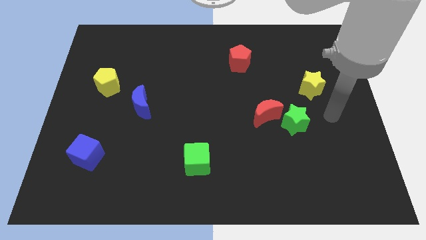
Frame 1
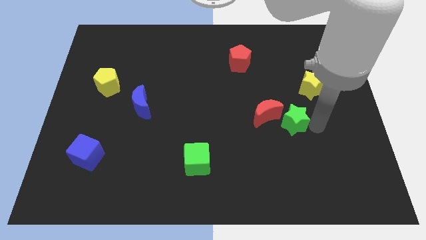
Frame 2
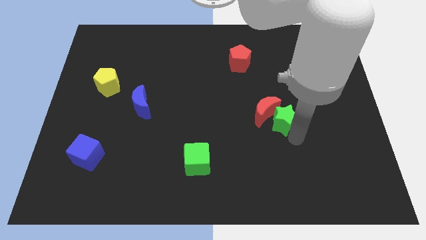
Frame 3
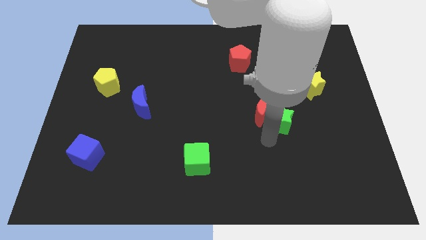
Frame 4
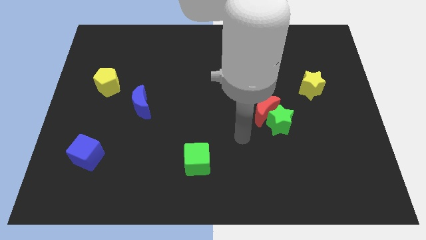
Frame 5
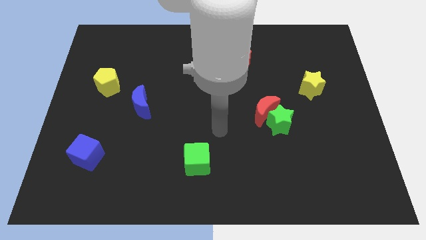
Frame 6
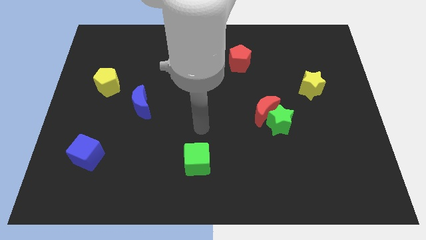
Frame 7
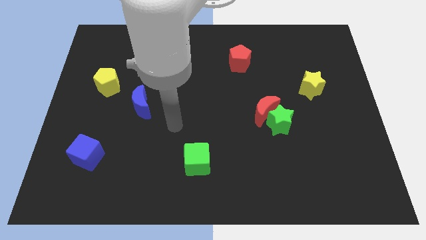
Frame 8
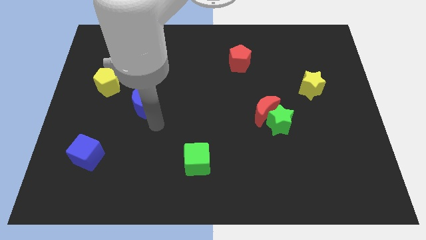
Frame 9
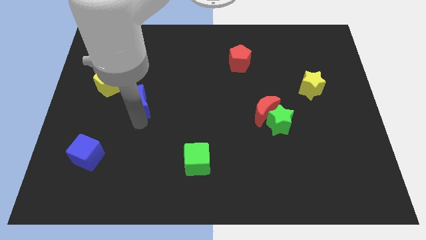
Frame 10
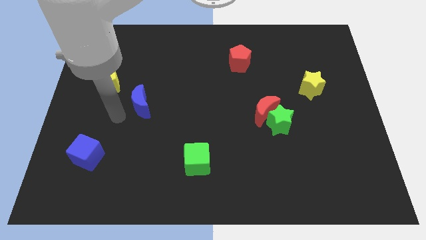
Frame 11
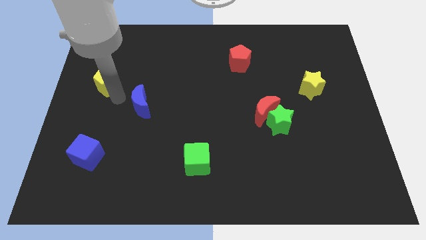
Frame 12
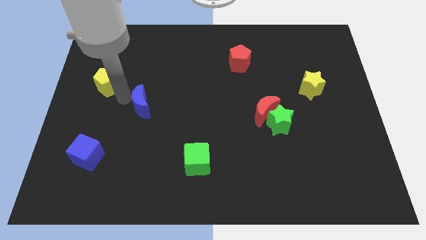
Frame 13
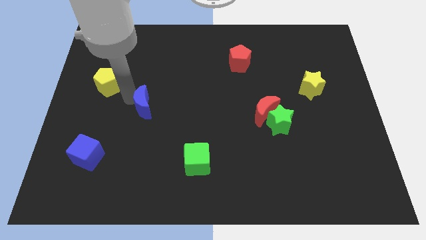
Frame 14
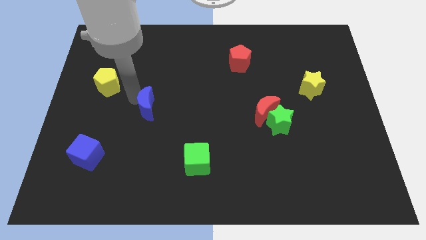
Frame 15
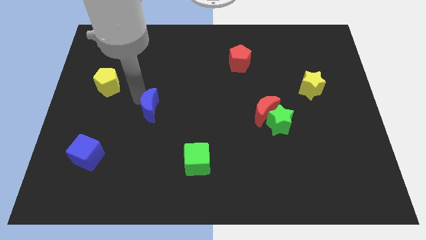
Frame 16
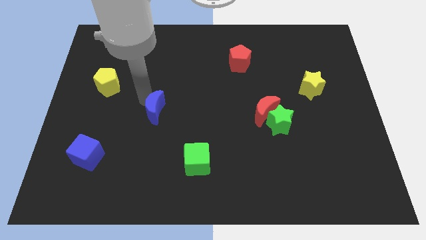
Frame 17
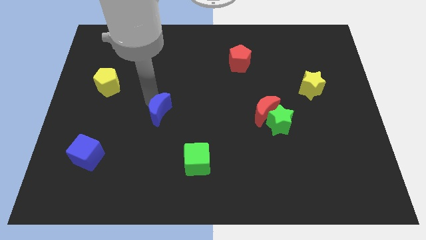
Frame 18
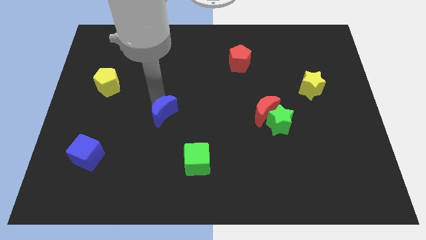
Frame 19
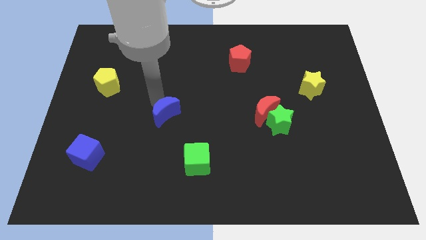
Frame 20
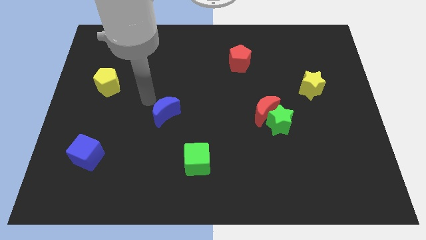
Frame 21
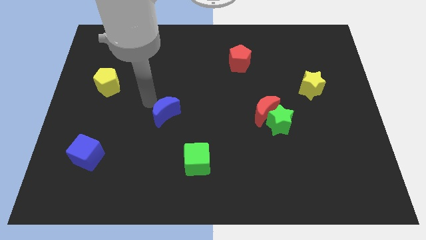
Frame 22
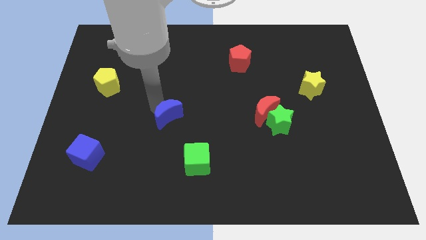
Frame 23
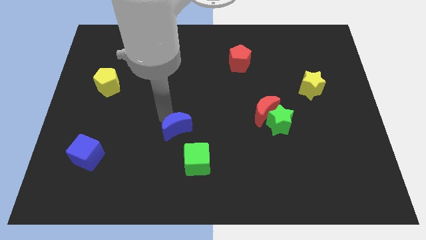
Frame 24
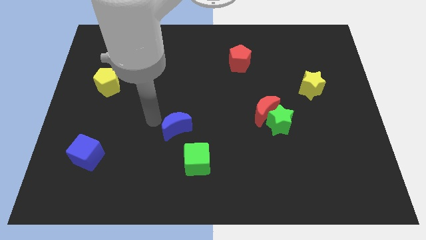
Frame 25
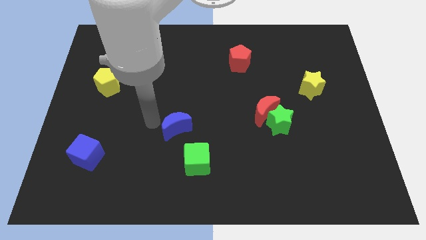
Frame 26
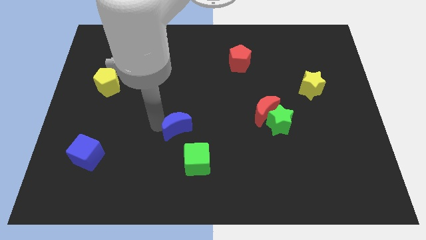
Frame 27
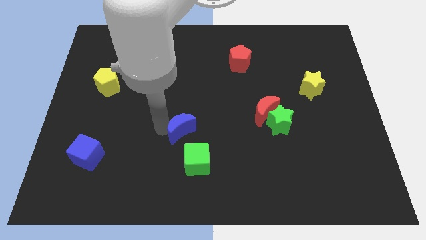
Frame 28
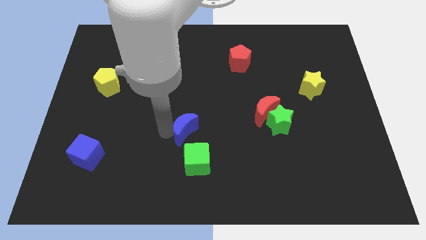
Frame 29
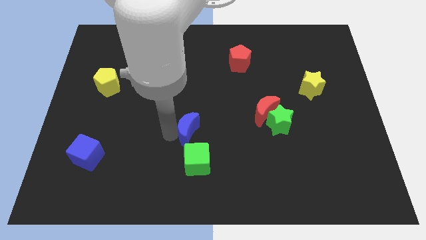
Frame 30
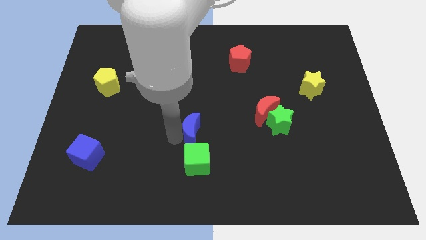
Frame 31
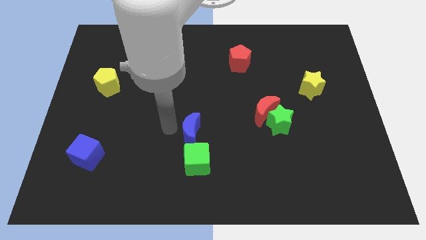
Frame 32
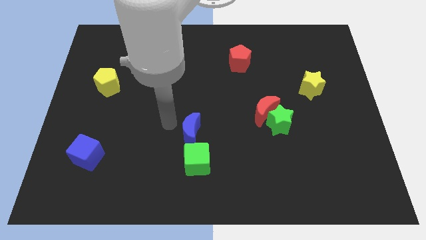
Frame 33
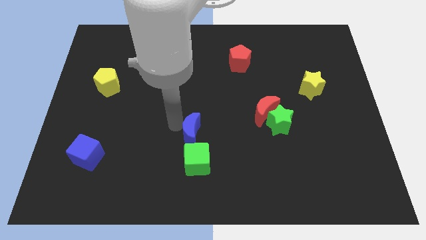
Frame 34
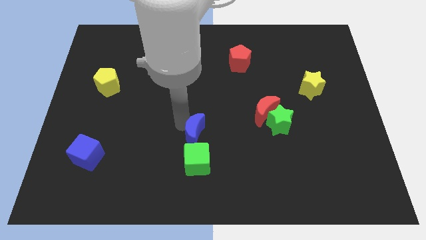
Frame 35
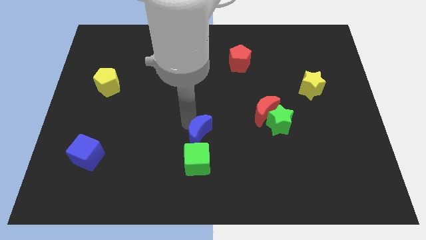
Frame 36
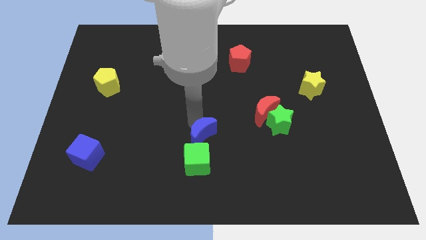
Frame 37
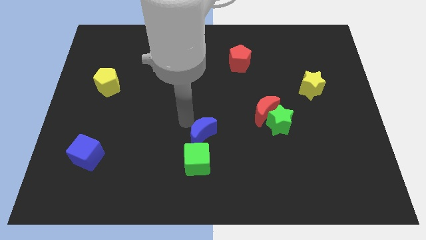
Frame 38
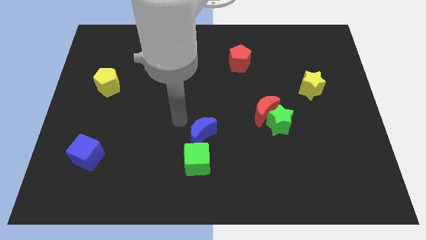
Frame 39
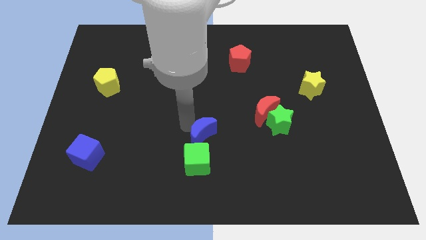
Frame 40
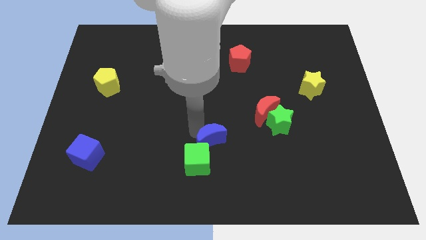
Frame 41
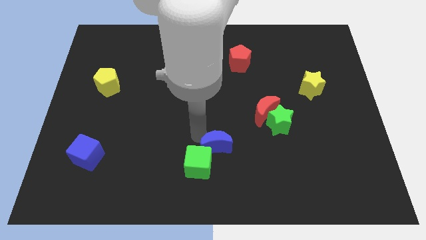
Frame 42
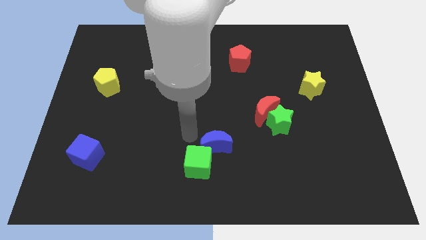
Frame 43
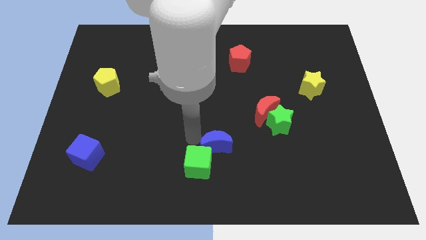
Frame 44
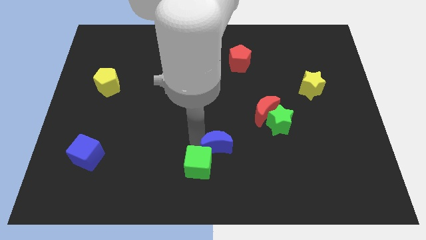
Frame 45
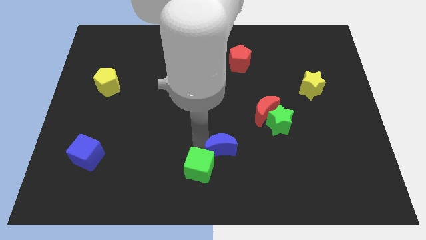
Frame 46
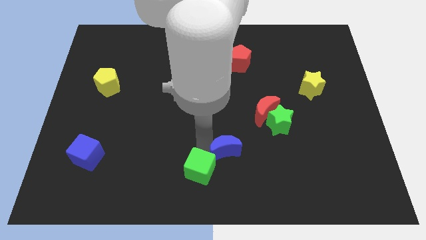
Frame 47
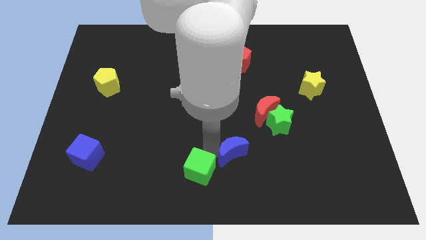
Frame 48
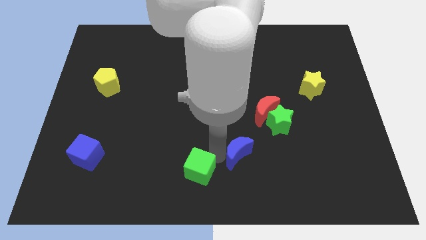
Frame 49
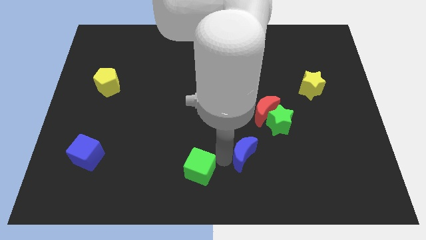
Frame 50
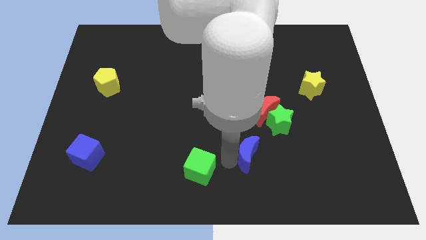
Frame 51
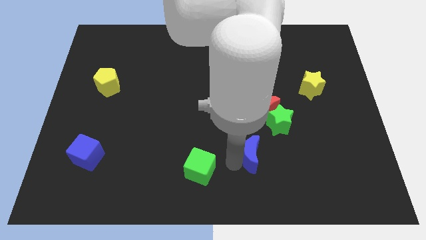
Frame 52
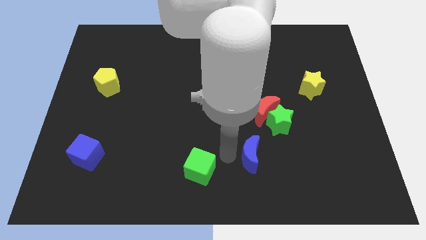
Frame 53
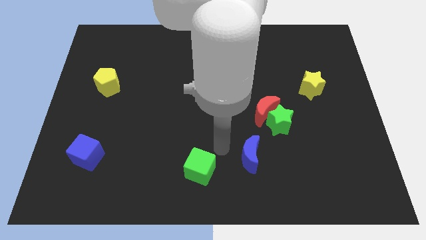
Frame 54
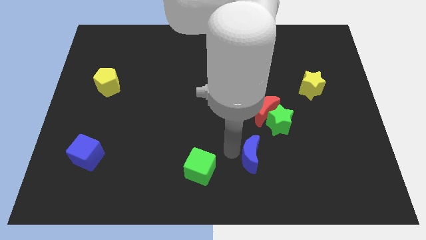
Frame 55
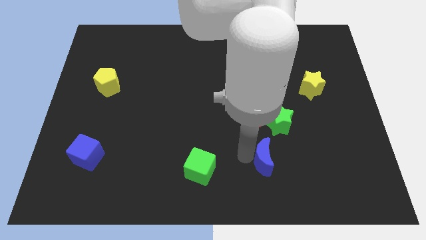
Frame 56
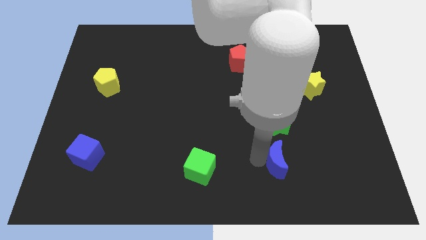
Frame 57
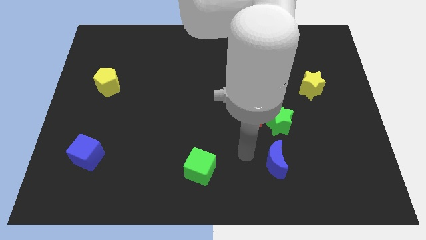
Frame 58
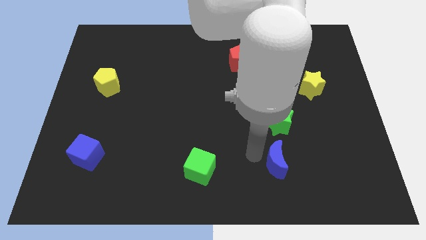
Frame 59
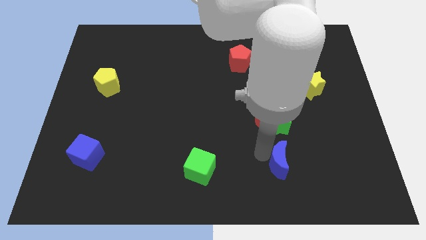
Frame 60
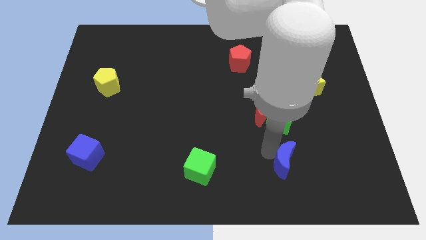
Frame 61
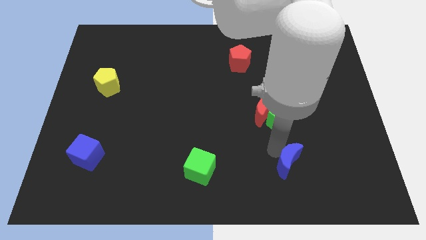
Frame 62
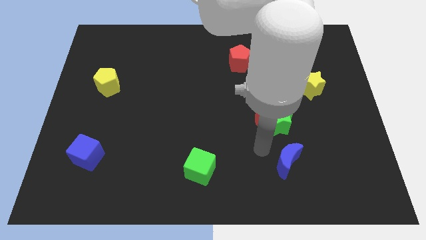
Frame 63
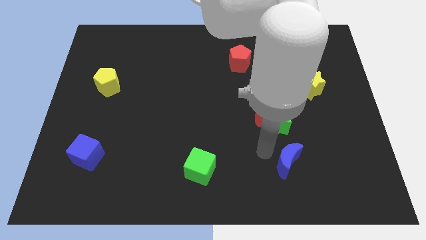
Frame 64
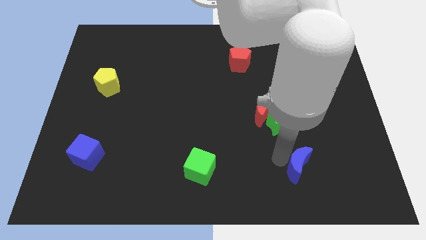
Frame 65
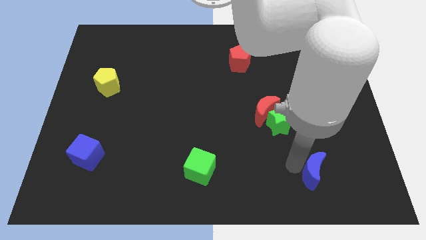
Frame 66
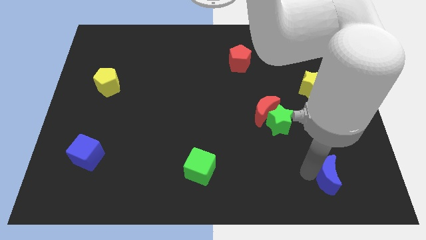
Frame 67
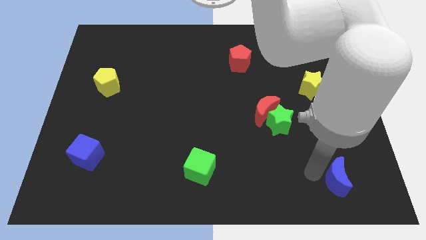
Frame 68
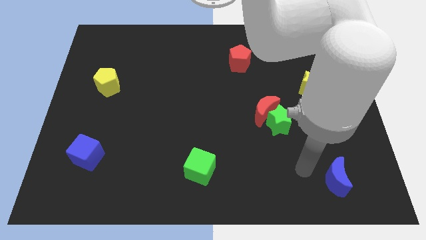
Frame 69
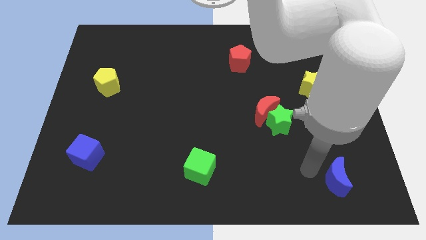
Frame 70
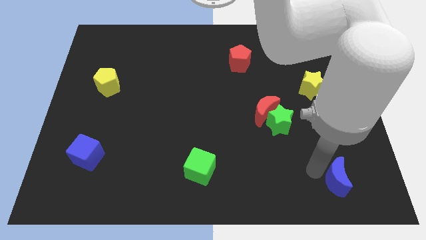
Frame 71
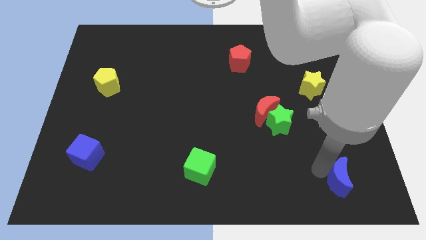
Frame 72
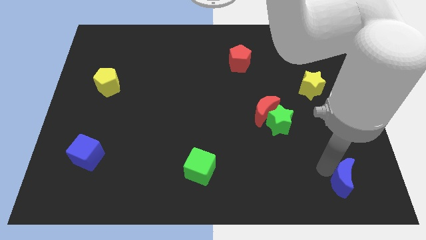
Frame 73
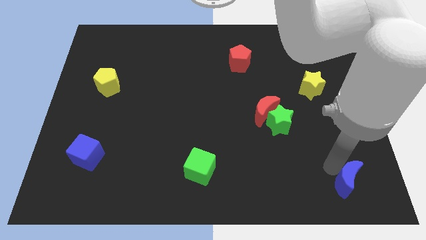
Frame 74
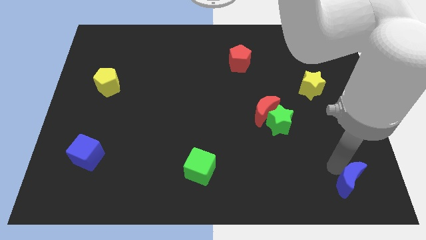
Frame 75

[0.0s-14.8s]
put the blue moon to the bottom right
